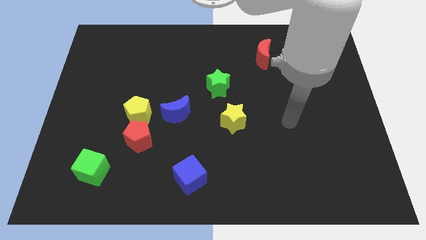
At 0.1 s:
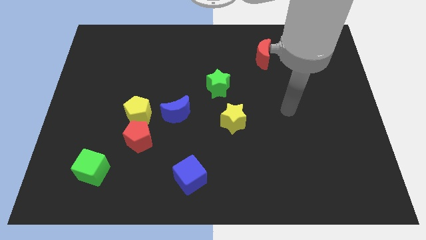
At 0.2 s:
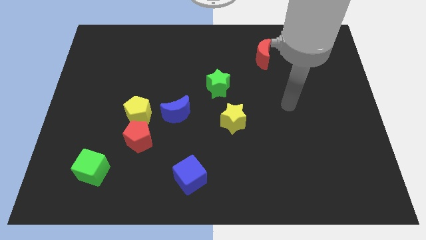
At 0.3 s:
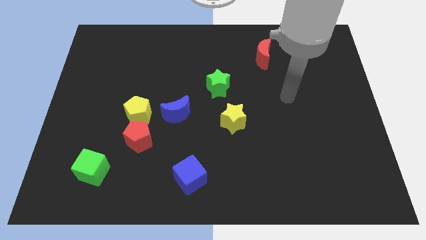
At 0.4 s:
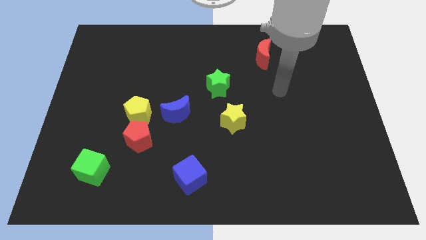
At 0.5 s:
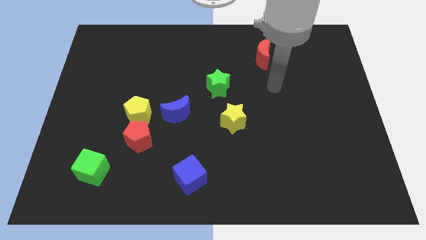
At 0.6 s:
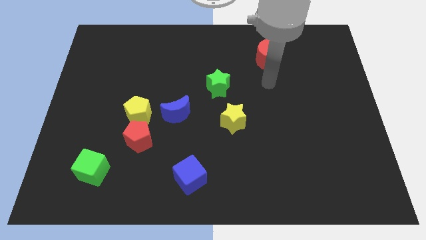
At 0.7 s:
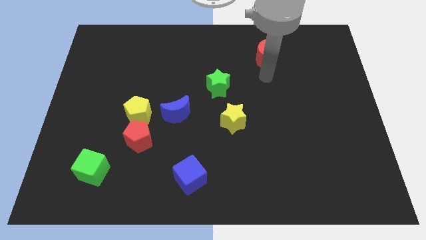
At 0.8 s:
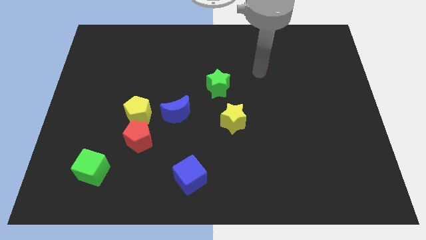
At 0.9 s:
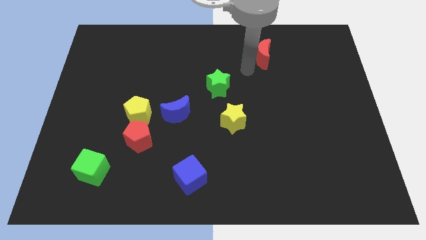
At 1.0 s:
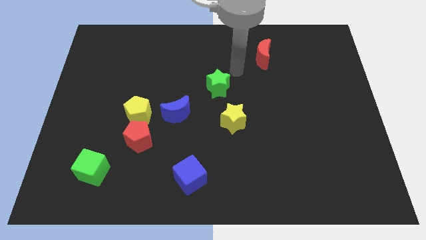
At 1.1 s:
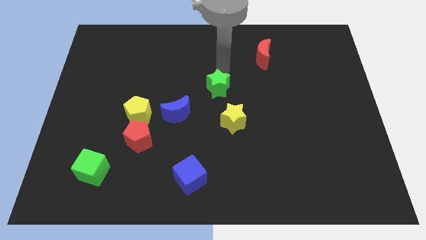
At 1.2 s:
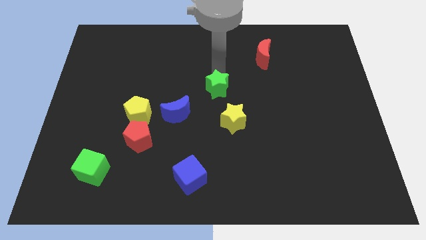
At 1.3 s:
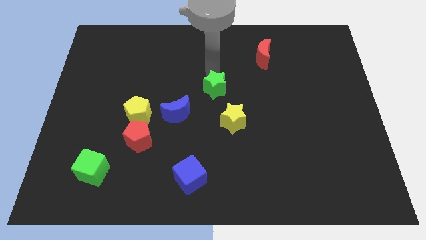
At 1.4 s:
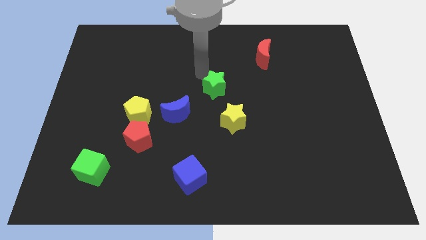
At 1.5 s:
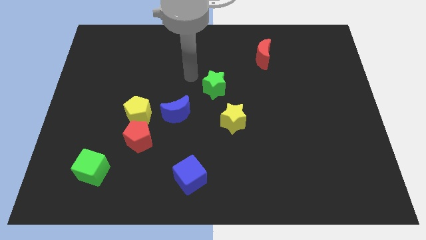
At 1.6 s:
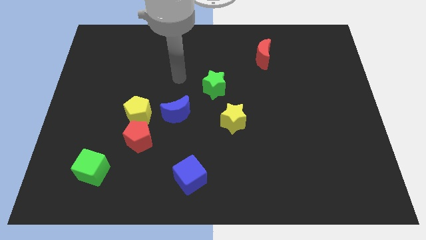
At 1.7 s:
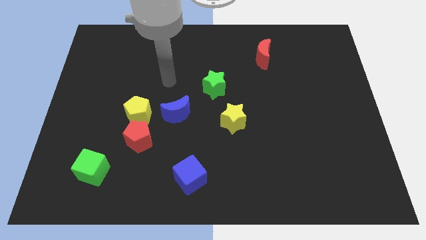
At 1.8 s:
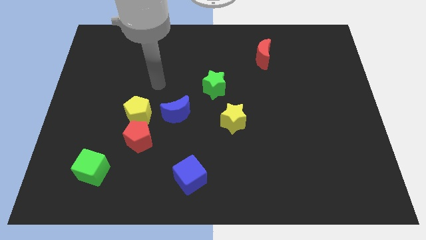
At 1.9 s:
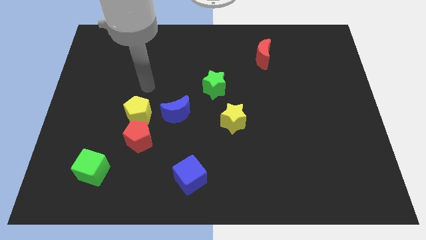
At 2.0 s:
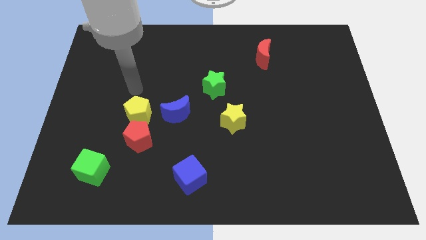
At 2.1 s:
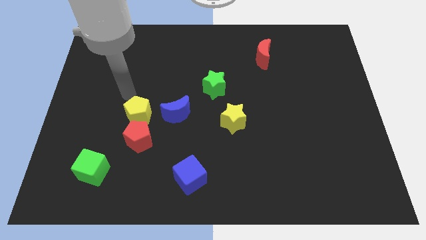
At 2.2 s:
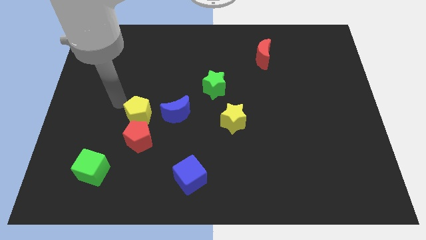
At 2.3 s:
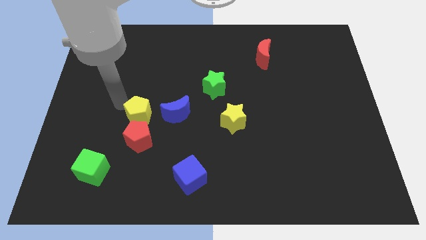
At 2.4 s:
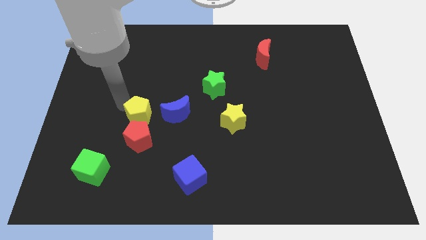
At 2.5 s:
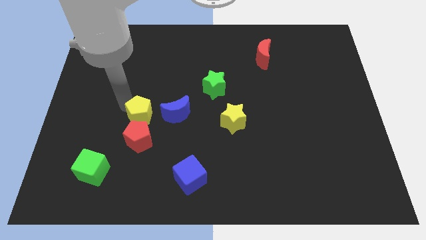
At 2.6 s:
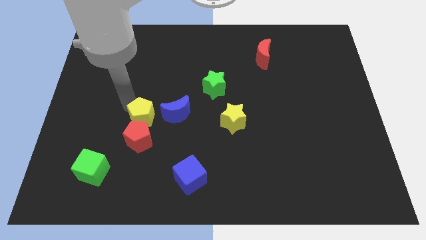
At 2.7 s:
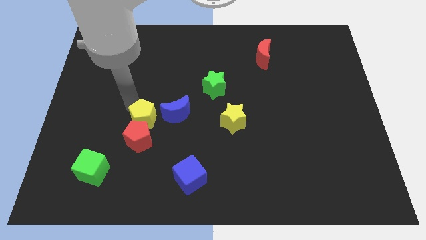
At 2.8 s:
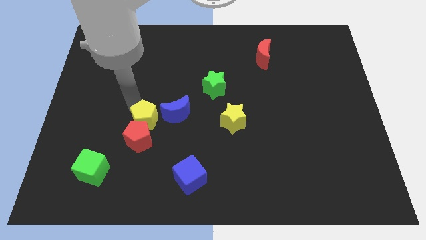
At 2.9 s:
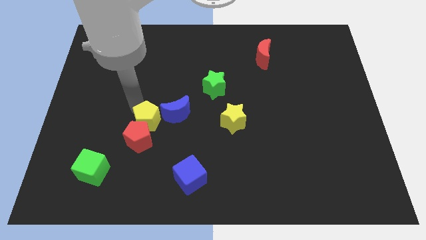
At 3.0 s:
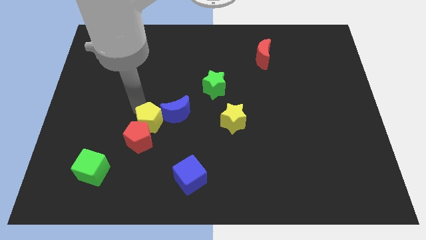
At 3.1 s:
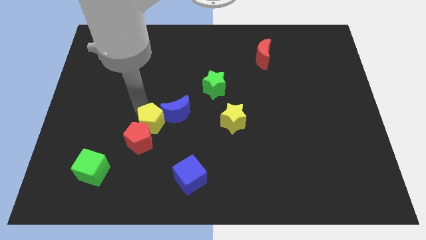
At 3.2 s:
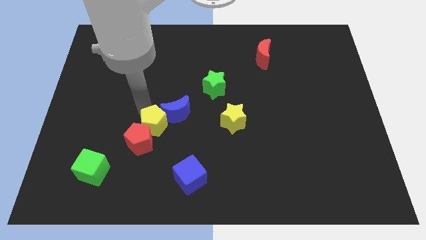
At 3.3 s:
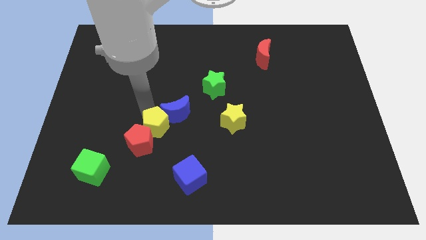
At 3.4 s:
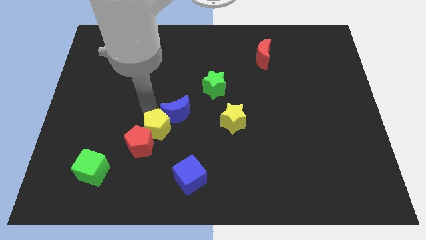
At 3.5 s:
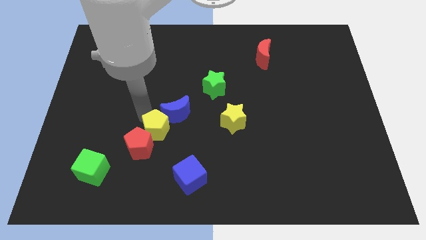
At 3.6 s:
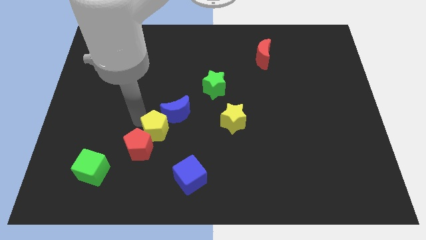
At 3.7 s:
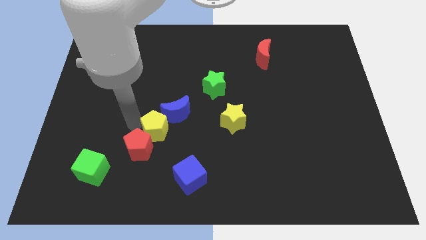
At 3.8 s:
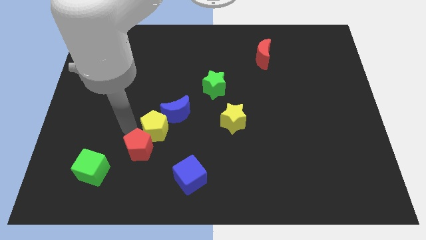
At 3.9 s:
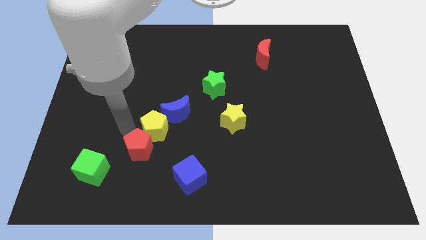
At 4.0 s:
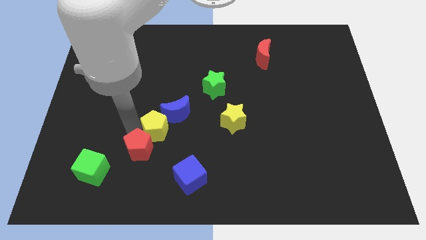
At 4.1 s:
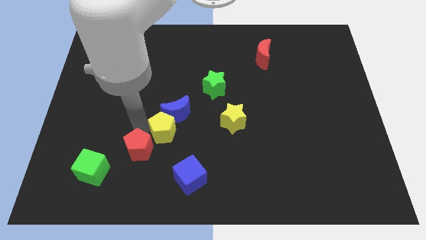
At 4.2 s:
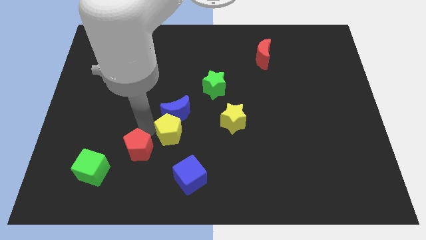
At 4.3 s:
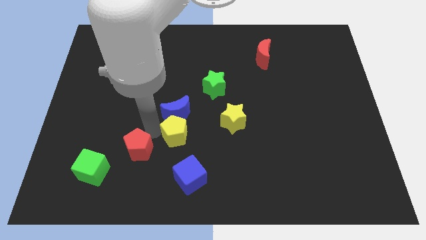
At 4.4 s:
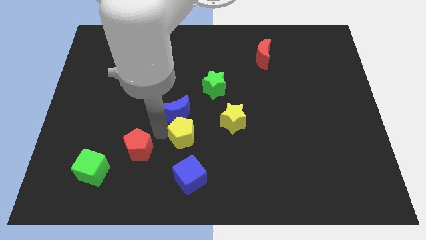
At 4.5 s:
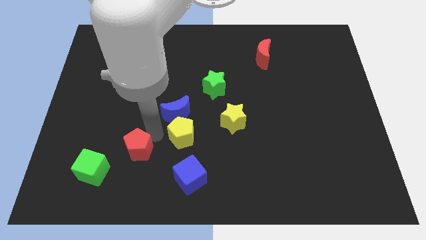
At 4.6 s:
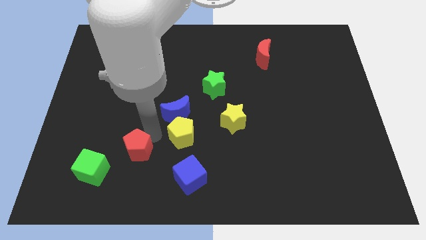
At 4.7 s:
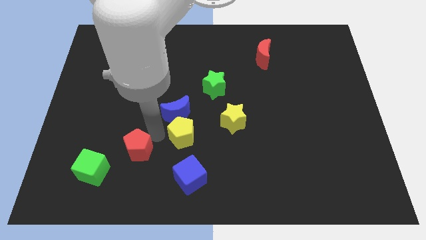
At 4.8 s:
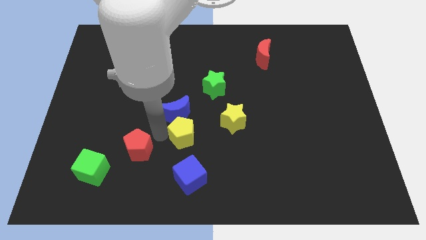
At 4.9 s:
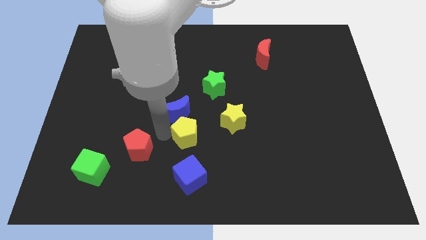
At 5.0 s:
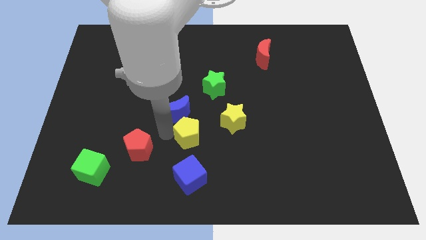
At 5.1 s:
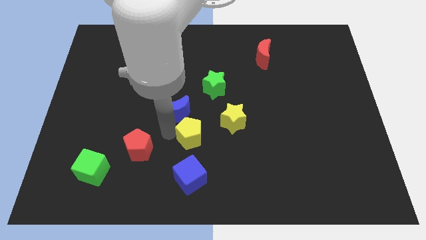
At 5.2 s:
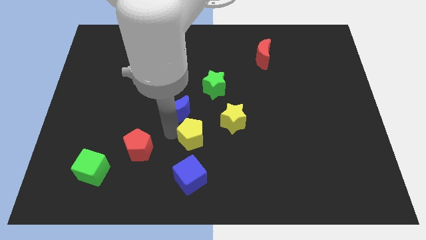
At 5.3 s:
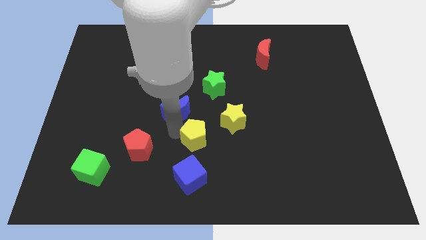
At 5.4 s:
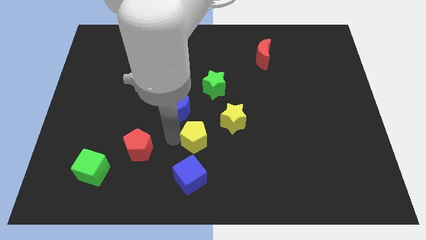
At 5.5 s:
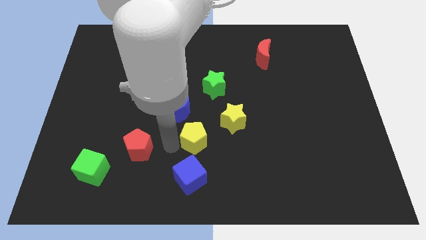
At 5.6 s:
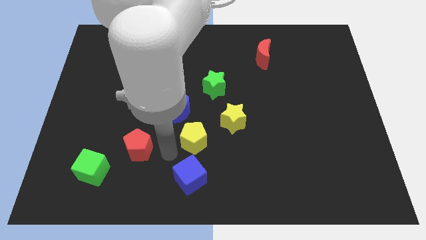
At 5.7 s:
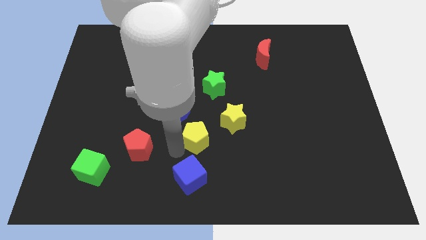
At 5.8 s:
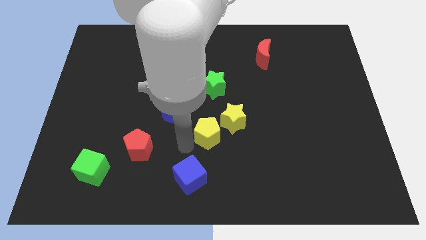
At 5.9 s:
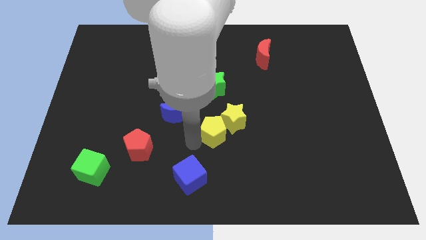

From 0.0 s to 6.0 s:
push the yellow pentagon next to the yellow star
